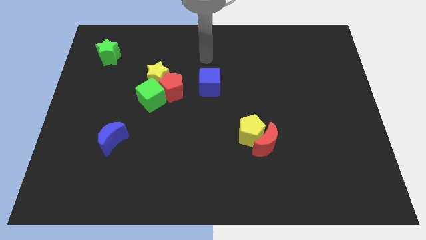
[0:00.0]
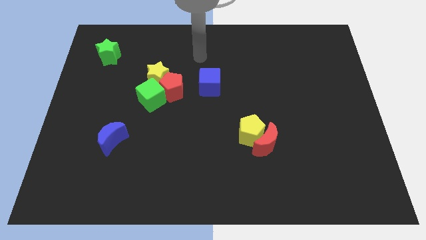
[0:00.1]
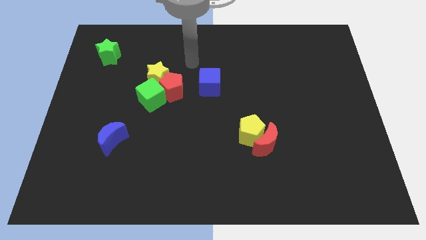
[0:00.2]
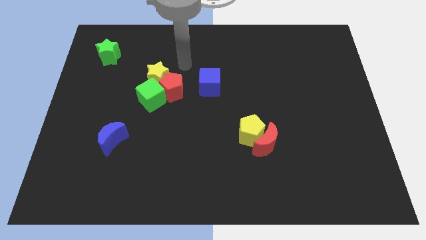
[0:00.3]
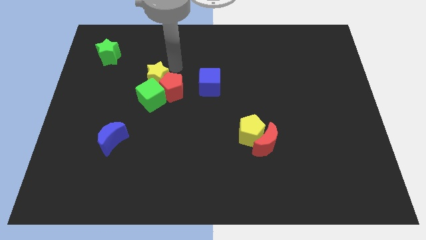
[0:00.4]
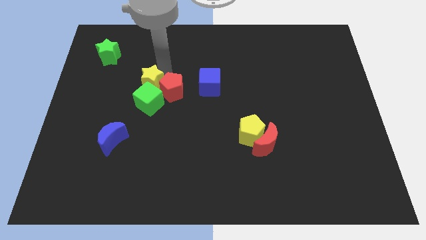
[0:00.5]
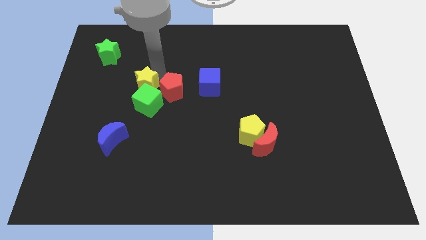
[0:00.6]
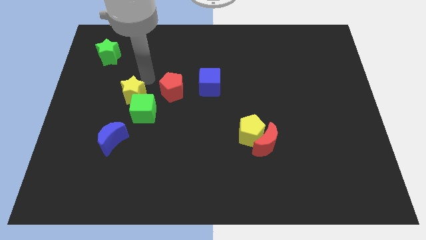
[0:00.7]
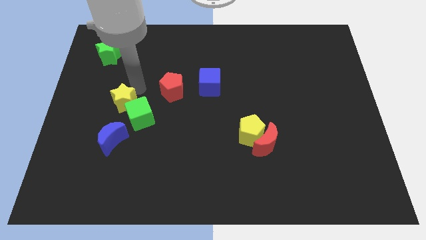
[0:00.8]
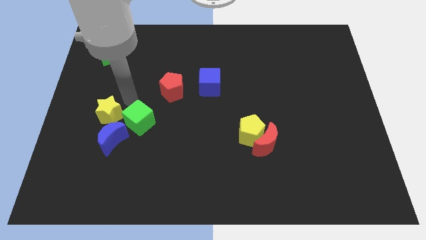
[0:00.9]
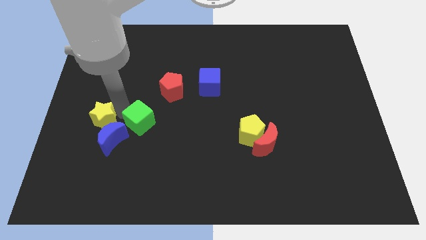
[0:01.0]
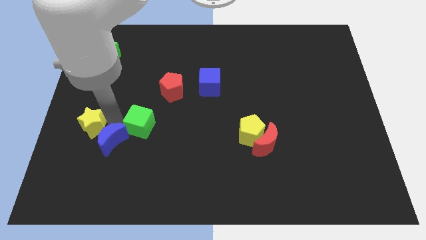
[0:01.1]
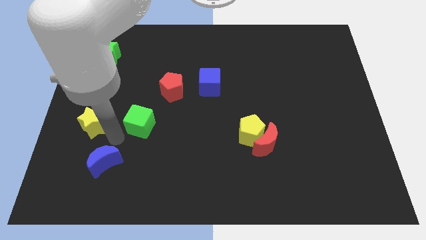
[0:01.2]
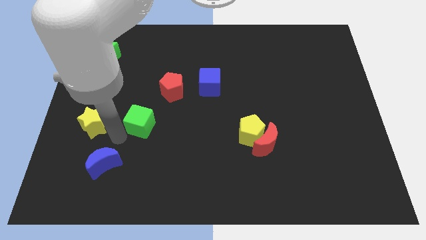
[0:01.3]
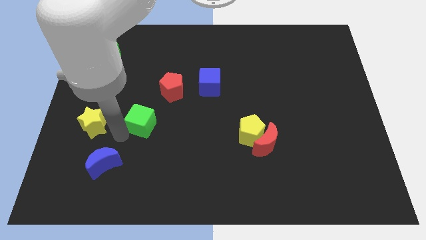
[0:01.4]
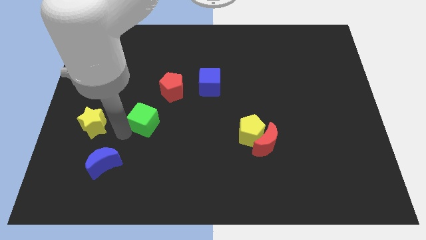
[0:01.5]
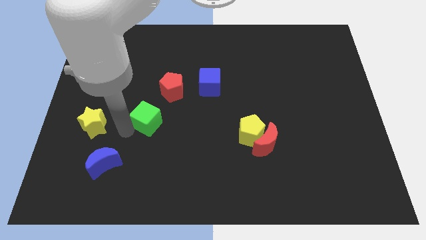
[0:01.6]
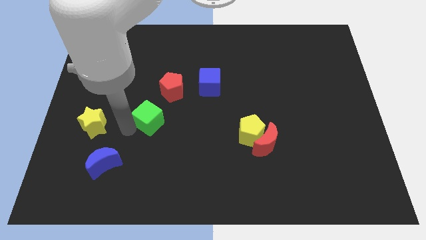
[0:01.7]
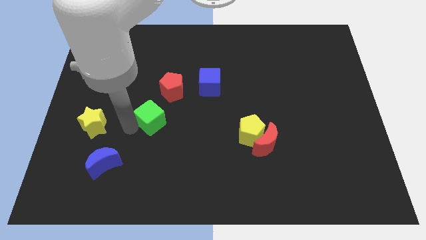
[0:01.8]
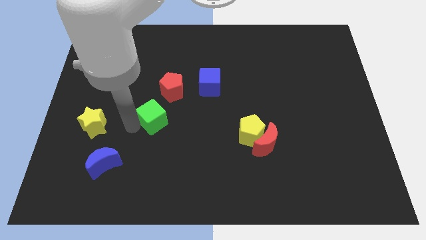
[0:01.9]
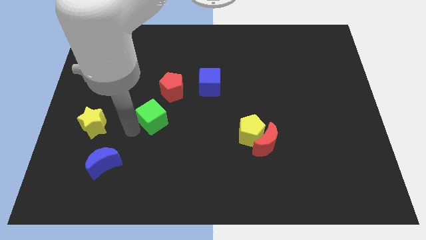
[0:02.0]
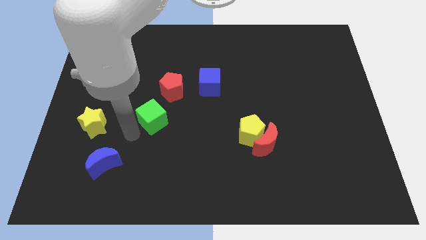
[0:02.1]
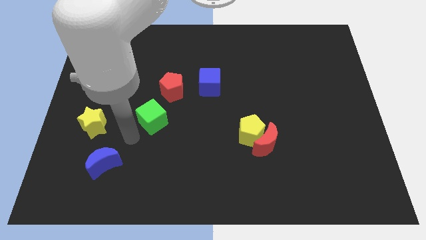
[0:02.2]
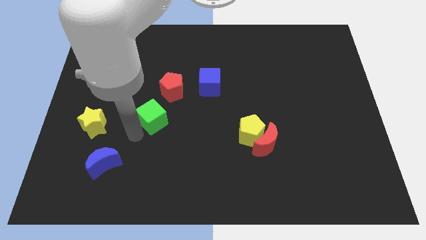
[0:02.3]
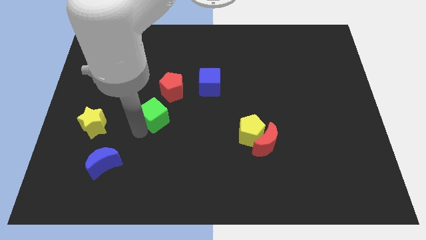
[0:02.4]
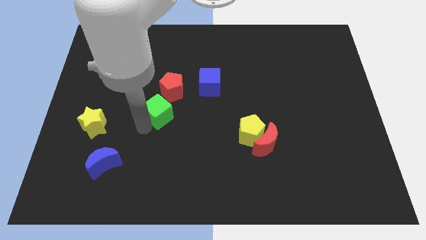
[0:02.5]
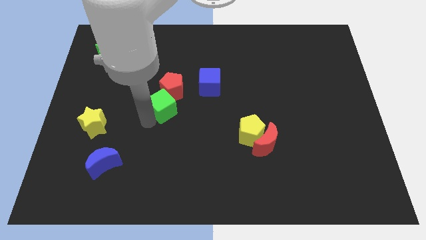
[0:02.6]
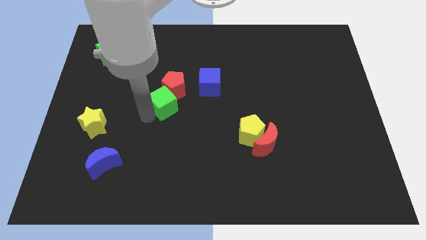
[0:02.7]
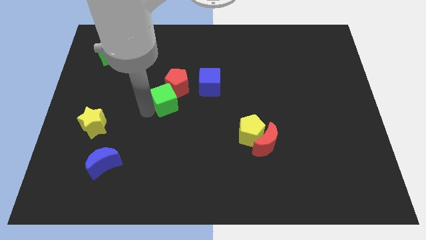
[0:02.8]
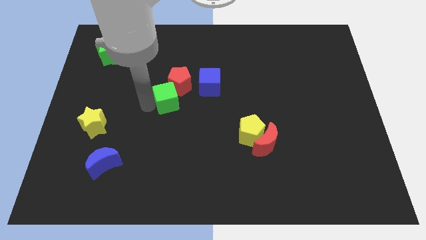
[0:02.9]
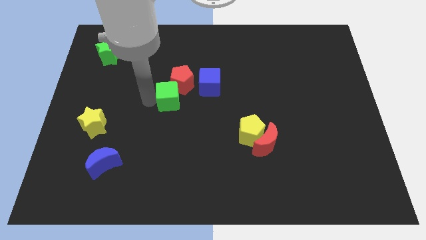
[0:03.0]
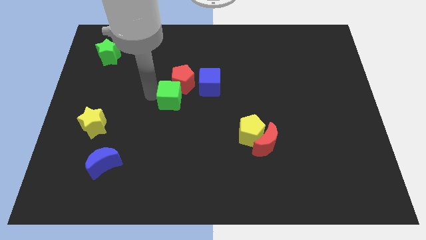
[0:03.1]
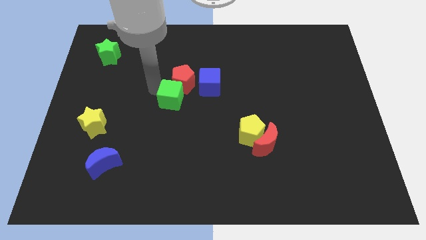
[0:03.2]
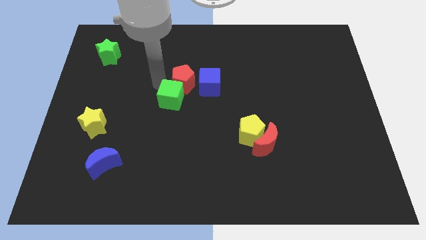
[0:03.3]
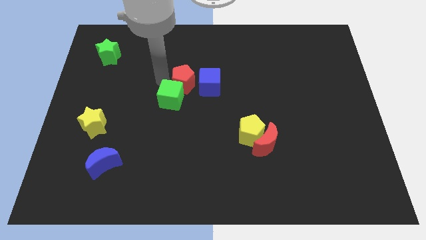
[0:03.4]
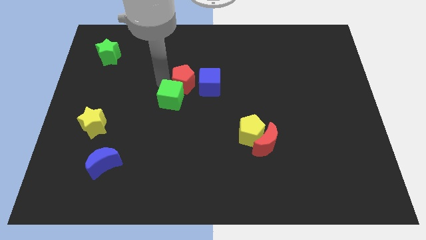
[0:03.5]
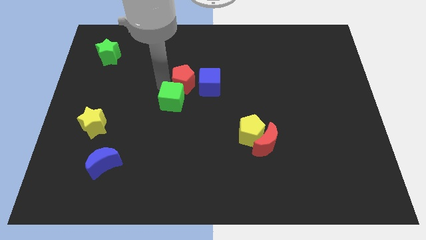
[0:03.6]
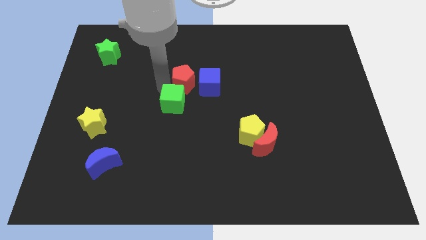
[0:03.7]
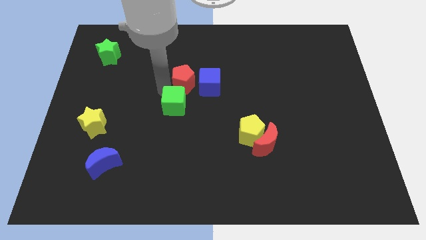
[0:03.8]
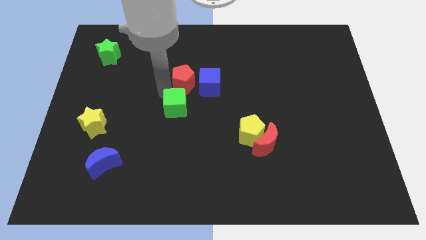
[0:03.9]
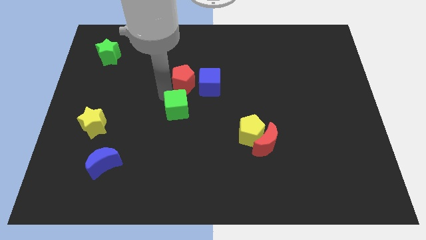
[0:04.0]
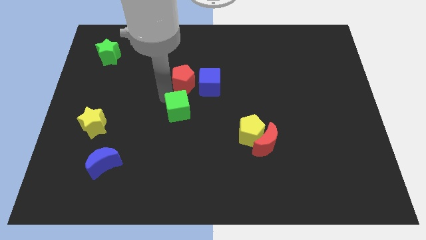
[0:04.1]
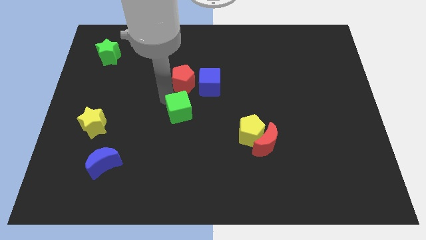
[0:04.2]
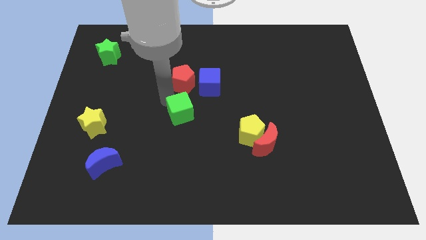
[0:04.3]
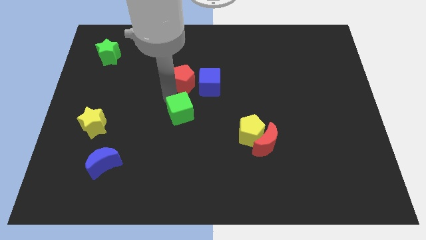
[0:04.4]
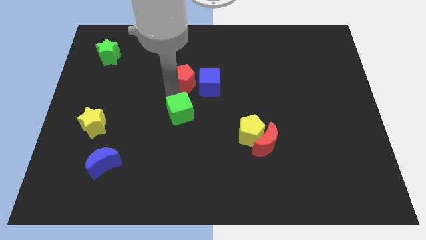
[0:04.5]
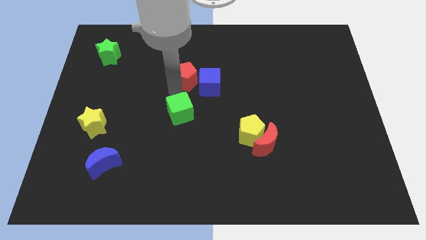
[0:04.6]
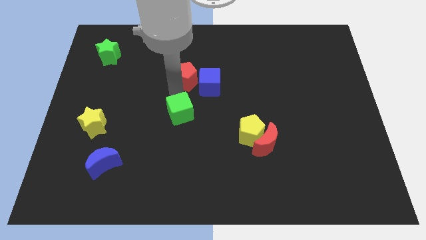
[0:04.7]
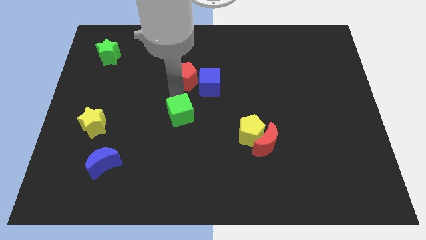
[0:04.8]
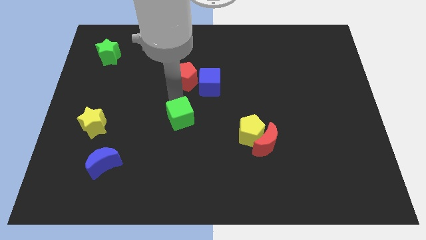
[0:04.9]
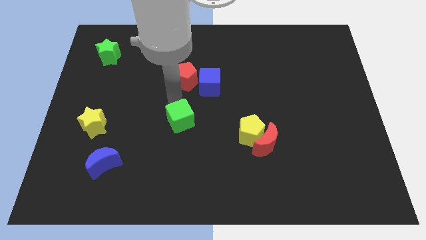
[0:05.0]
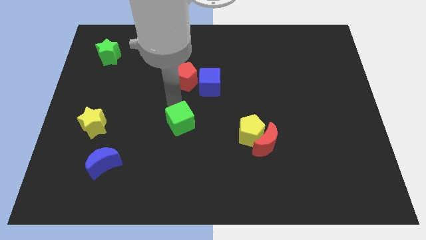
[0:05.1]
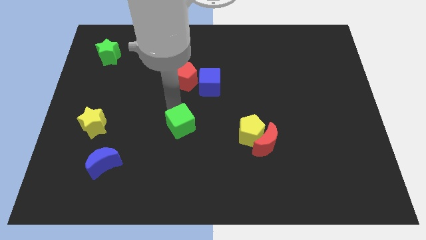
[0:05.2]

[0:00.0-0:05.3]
push the green cube to the left of the yellow pentagon

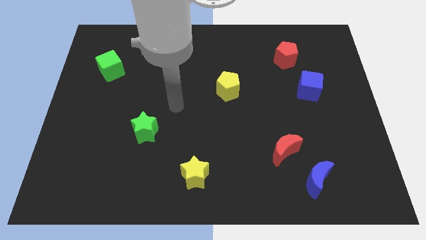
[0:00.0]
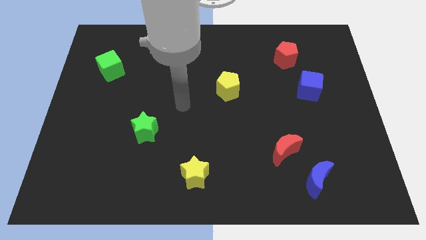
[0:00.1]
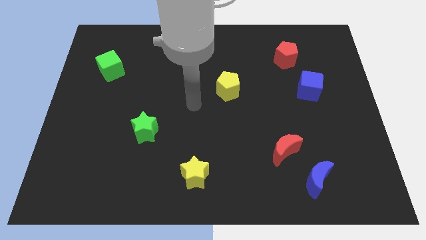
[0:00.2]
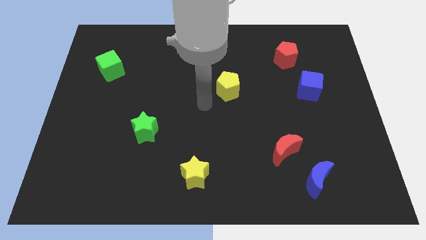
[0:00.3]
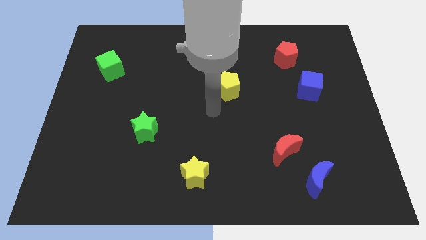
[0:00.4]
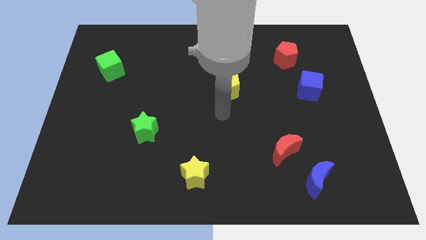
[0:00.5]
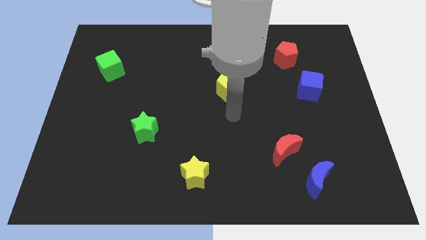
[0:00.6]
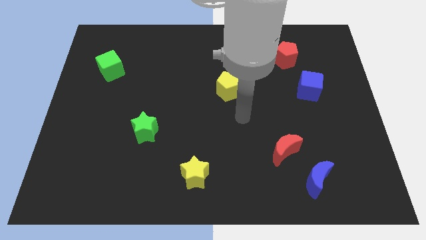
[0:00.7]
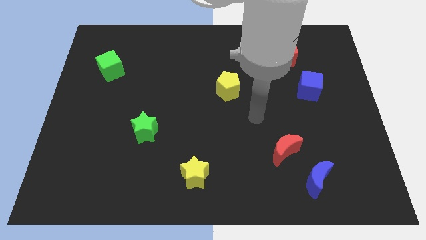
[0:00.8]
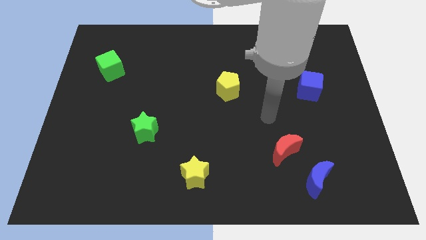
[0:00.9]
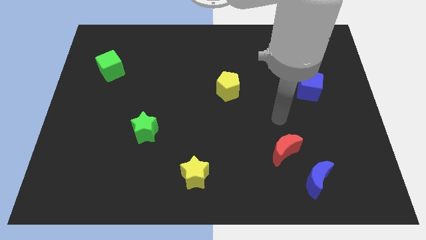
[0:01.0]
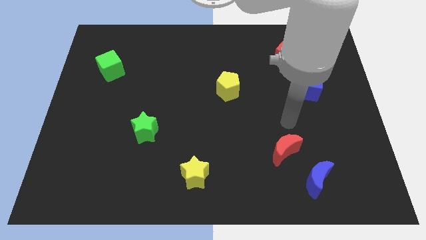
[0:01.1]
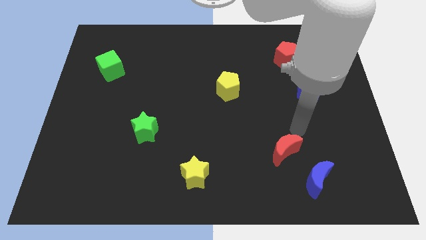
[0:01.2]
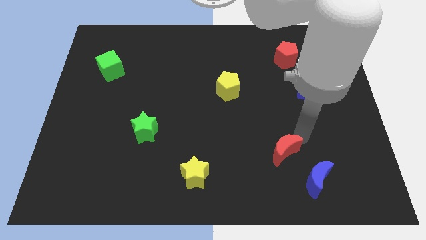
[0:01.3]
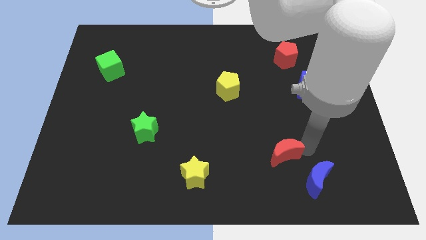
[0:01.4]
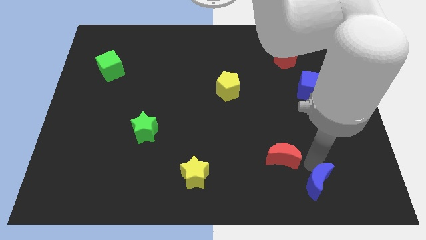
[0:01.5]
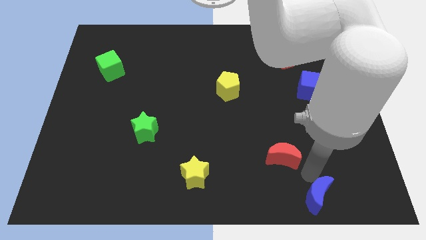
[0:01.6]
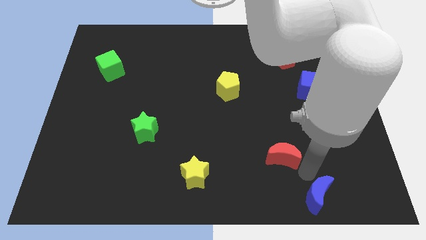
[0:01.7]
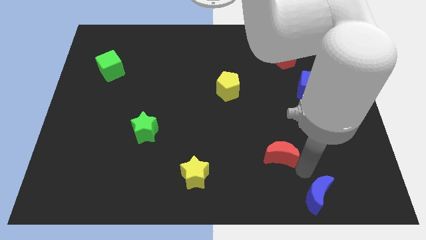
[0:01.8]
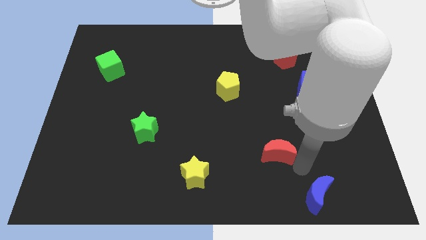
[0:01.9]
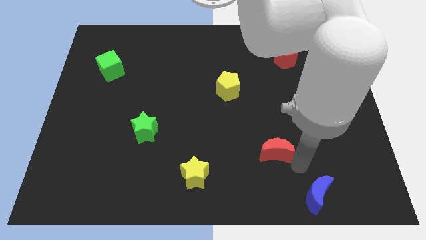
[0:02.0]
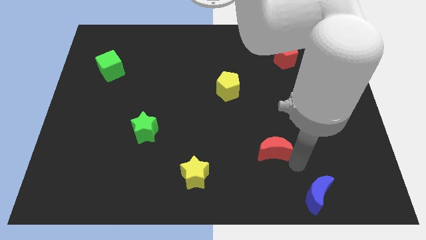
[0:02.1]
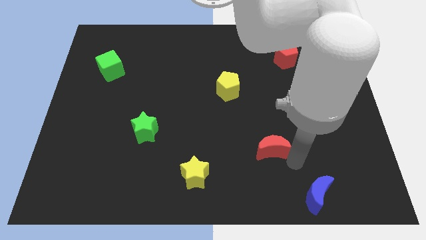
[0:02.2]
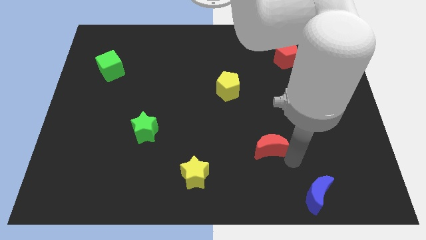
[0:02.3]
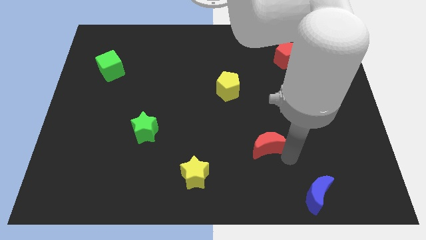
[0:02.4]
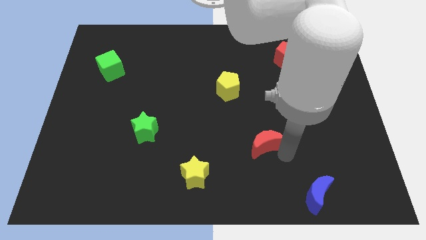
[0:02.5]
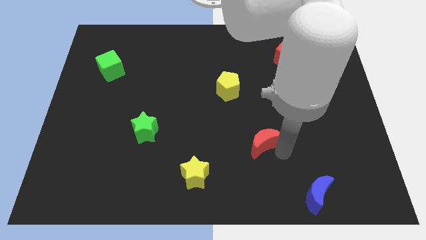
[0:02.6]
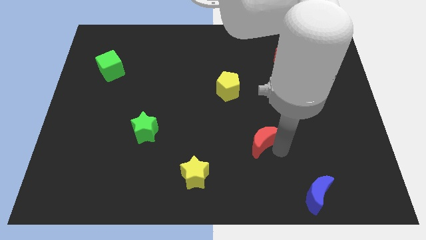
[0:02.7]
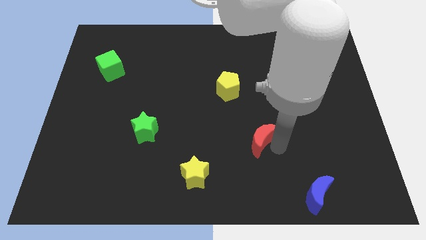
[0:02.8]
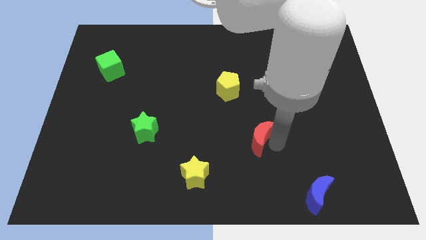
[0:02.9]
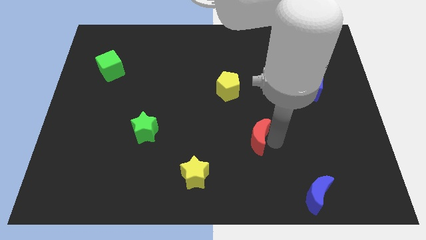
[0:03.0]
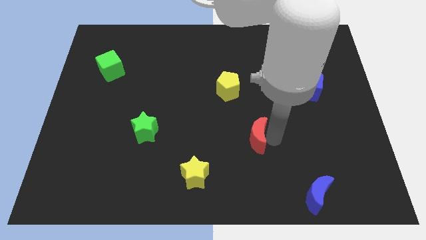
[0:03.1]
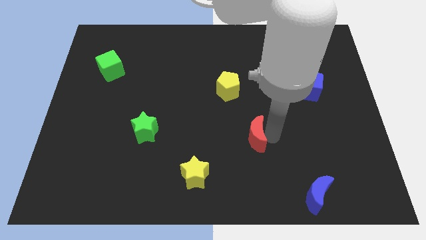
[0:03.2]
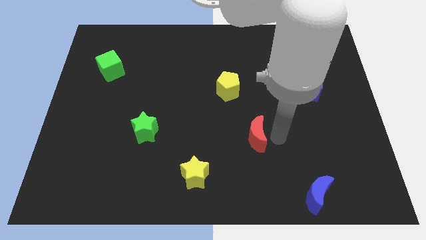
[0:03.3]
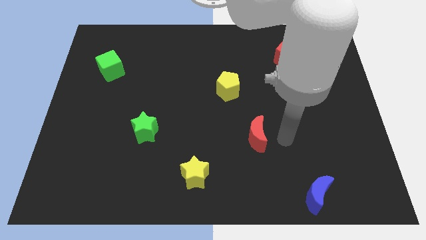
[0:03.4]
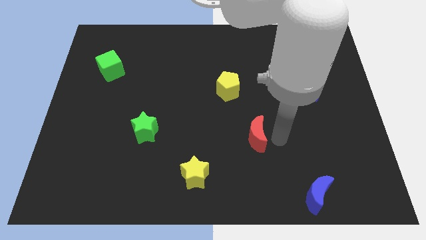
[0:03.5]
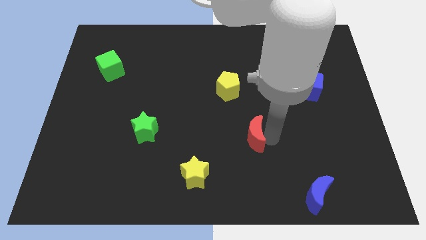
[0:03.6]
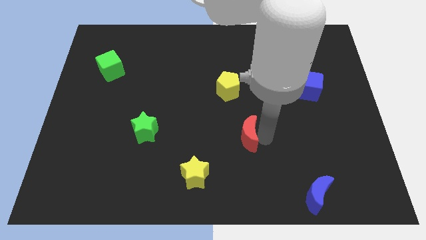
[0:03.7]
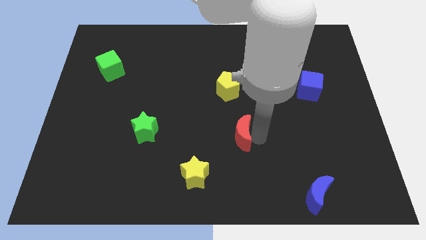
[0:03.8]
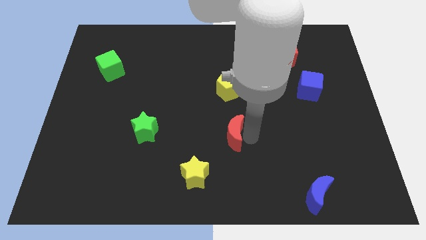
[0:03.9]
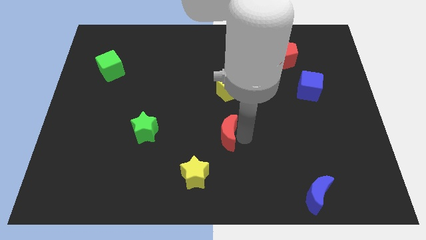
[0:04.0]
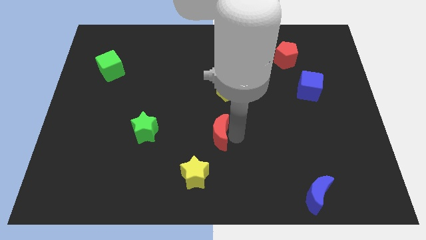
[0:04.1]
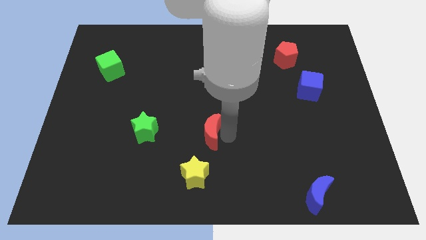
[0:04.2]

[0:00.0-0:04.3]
slide the red moon above the yellow star
